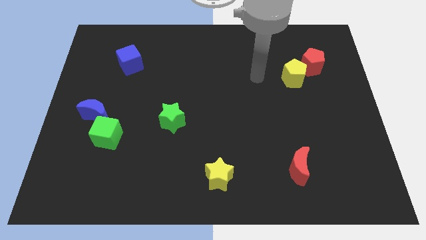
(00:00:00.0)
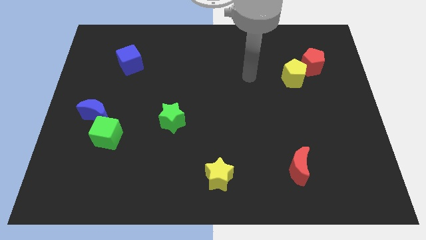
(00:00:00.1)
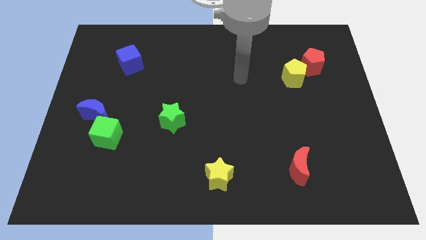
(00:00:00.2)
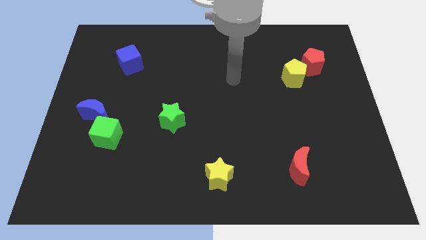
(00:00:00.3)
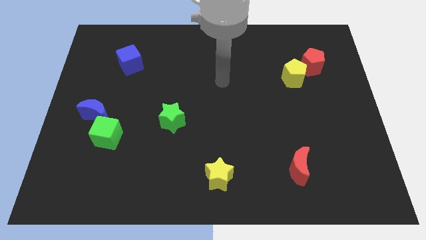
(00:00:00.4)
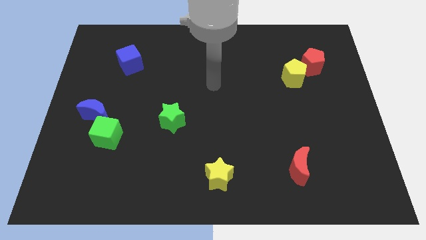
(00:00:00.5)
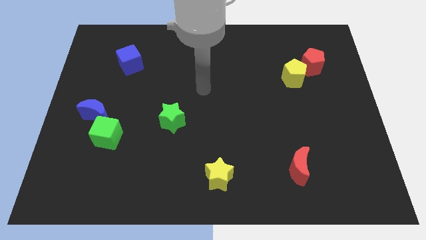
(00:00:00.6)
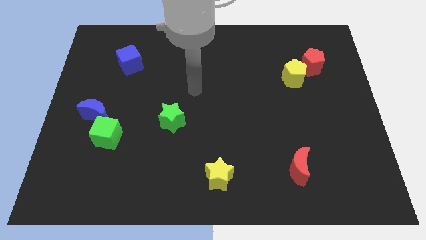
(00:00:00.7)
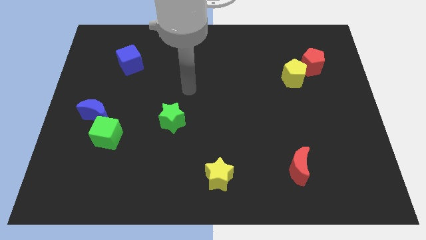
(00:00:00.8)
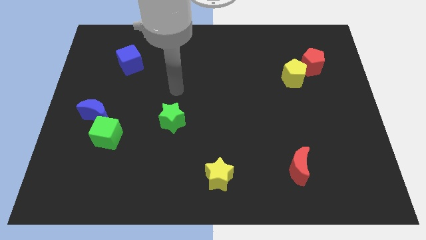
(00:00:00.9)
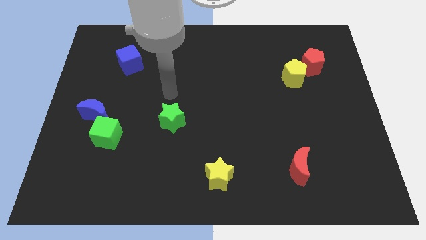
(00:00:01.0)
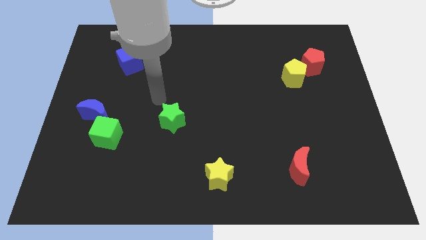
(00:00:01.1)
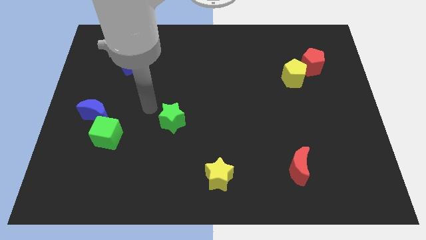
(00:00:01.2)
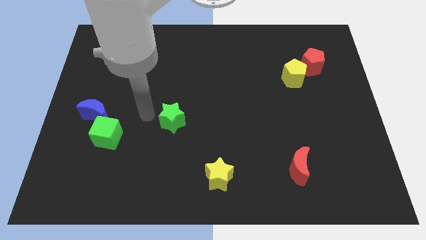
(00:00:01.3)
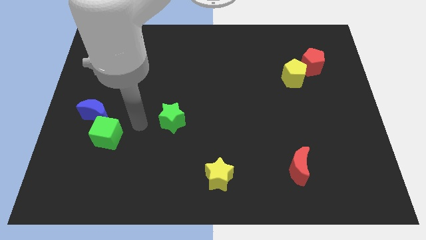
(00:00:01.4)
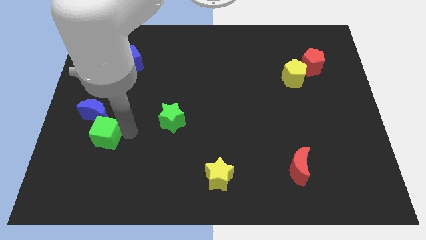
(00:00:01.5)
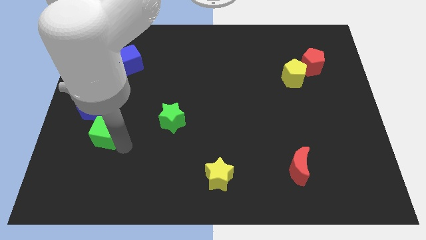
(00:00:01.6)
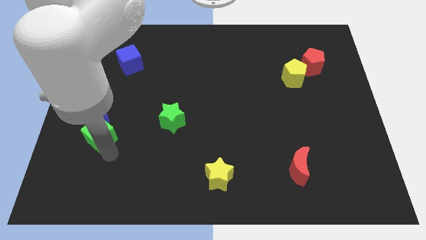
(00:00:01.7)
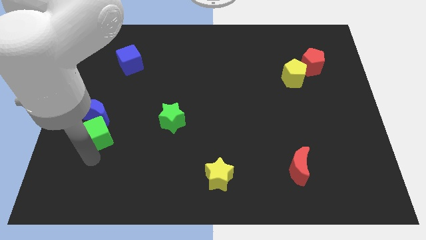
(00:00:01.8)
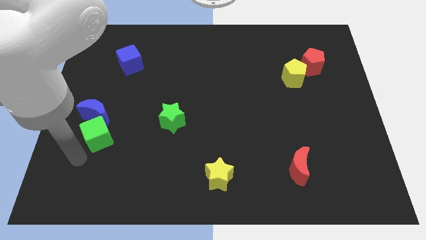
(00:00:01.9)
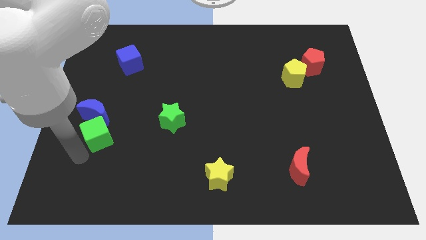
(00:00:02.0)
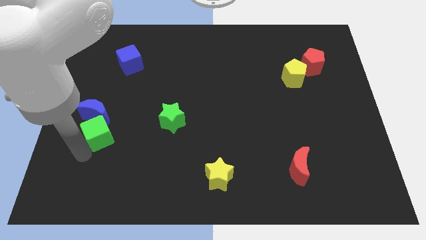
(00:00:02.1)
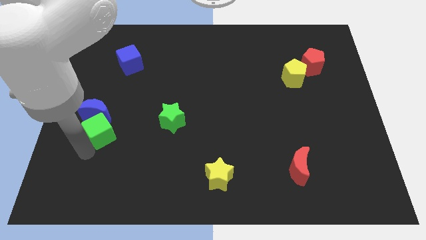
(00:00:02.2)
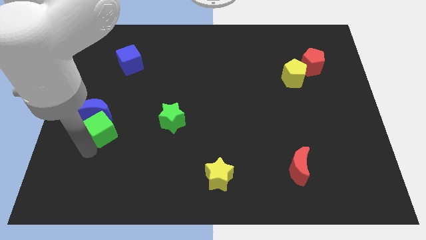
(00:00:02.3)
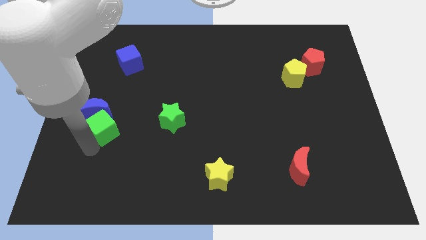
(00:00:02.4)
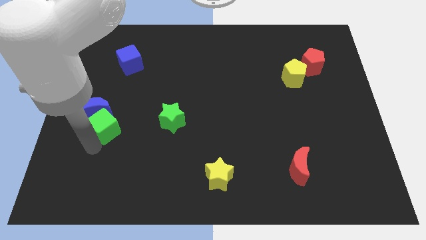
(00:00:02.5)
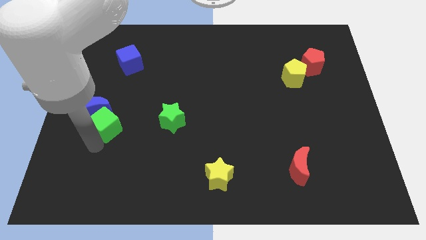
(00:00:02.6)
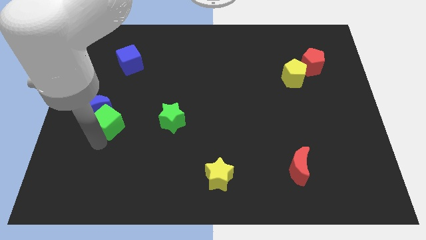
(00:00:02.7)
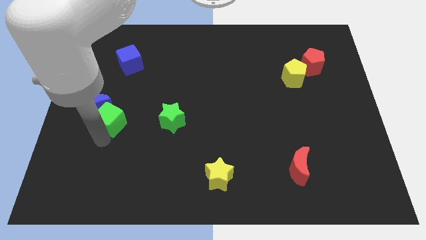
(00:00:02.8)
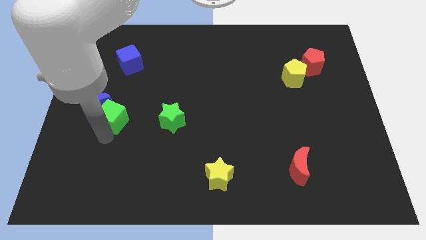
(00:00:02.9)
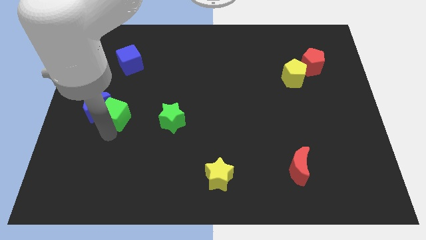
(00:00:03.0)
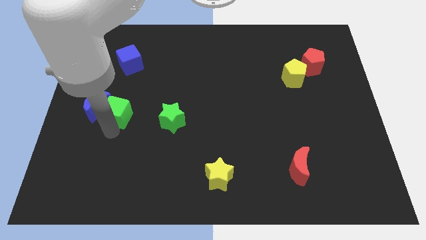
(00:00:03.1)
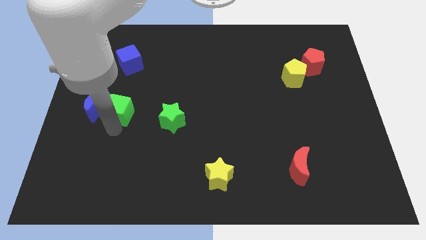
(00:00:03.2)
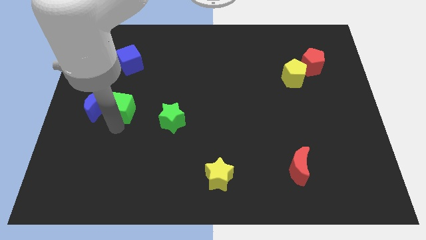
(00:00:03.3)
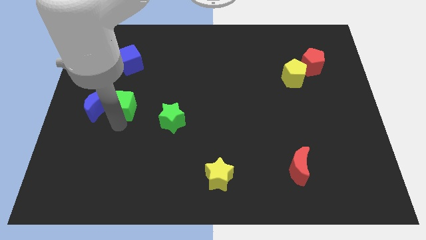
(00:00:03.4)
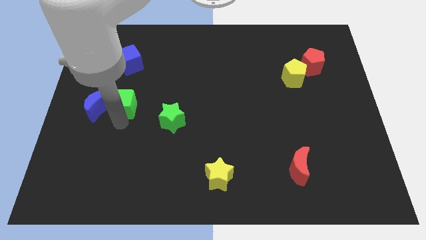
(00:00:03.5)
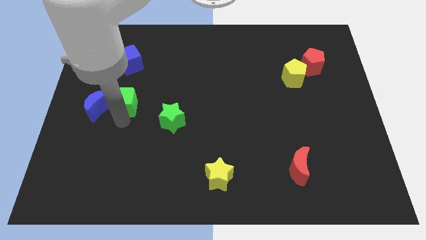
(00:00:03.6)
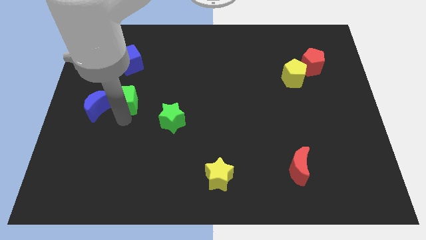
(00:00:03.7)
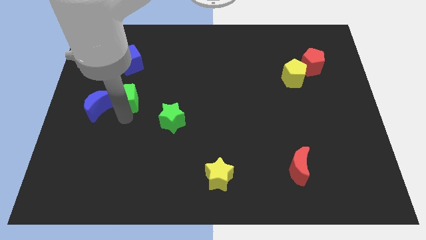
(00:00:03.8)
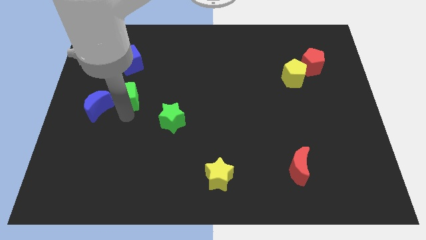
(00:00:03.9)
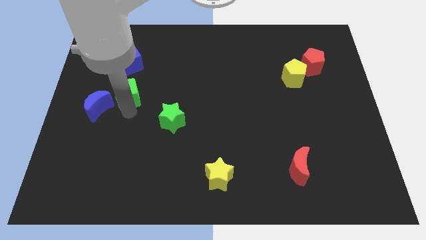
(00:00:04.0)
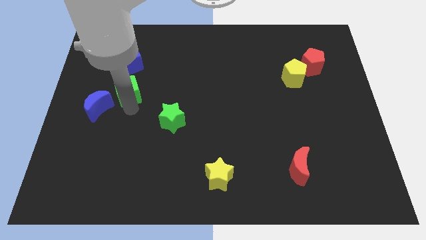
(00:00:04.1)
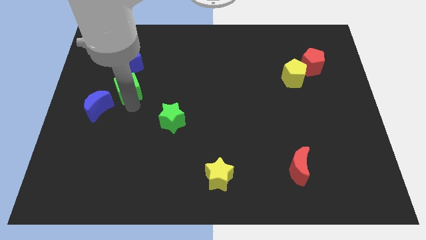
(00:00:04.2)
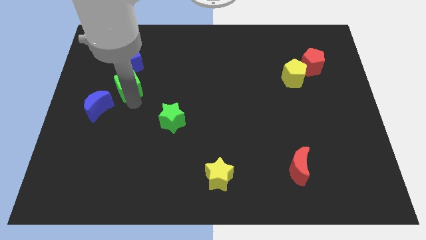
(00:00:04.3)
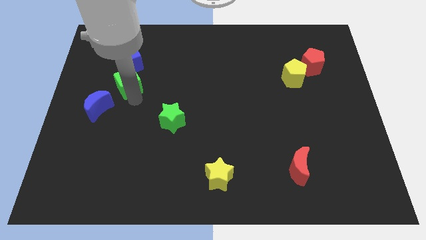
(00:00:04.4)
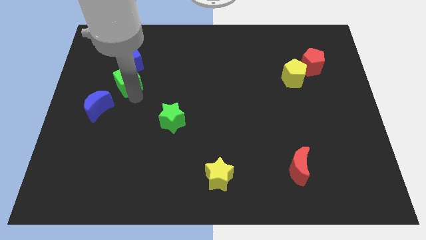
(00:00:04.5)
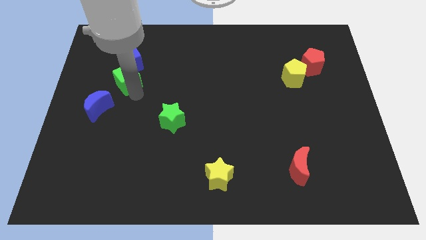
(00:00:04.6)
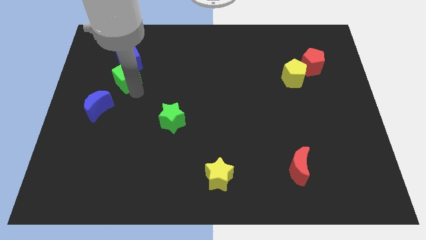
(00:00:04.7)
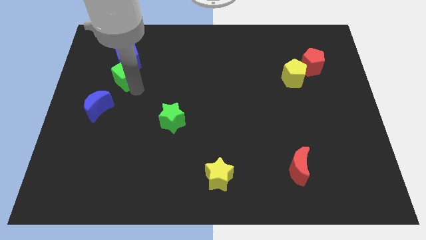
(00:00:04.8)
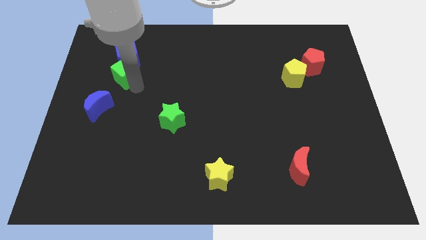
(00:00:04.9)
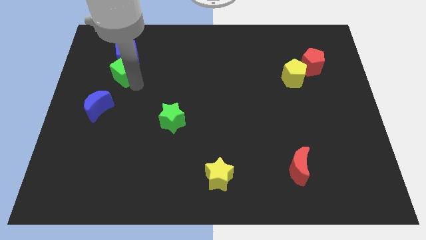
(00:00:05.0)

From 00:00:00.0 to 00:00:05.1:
slide the green cube to the top of the blue moon

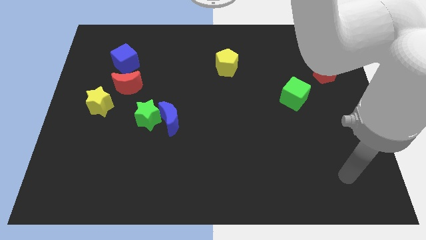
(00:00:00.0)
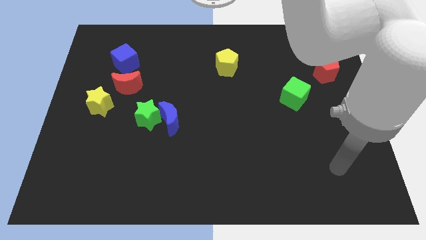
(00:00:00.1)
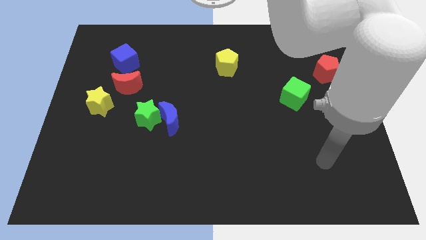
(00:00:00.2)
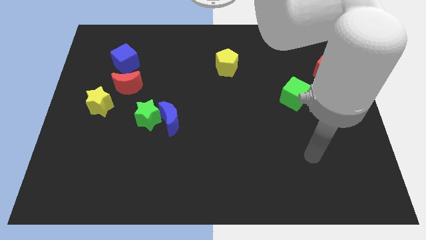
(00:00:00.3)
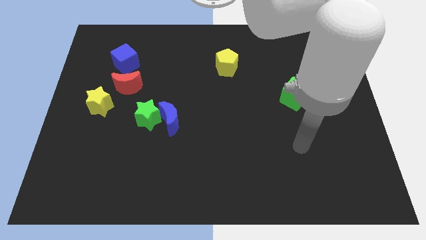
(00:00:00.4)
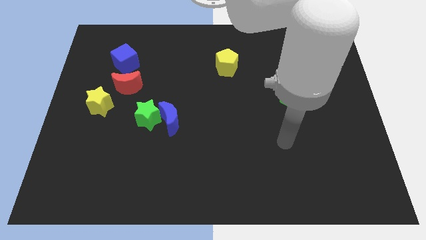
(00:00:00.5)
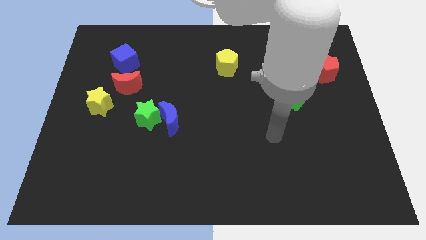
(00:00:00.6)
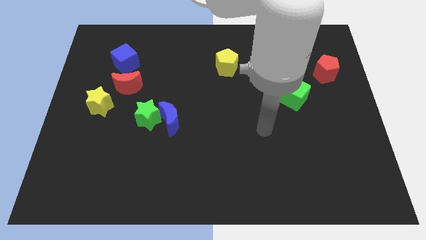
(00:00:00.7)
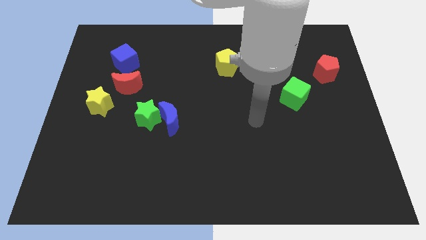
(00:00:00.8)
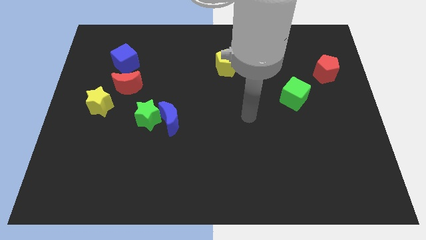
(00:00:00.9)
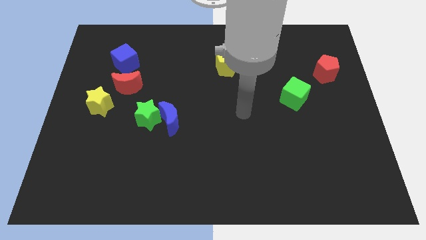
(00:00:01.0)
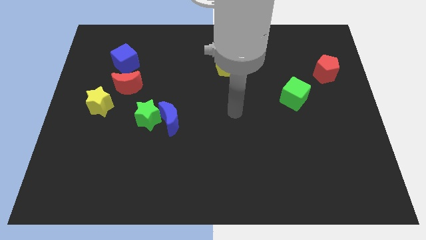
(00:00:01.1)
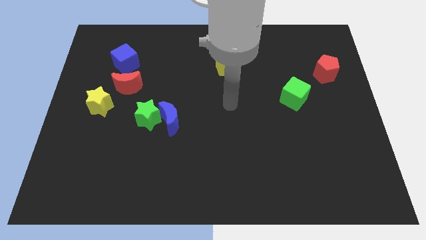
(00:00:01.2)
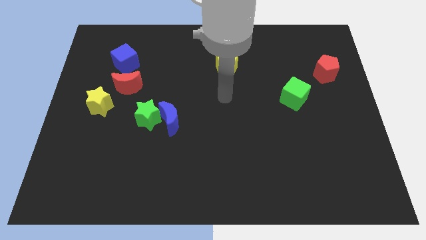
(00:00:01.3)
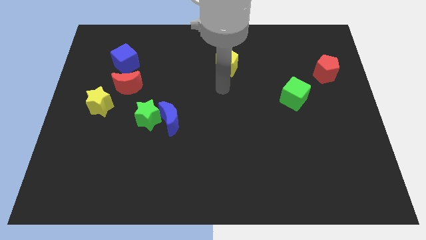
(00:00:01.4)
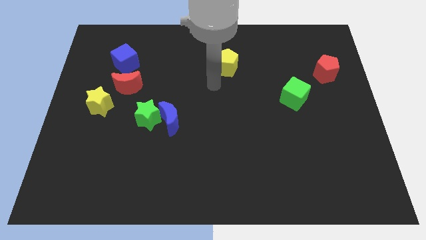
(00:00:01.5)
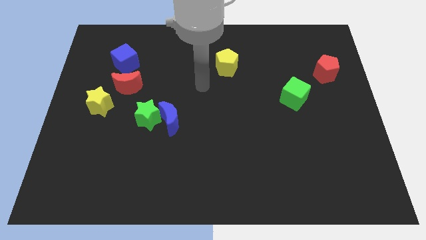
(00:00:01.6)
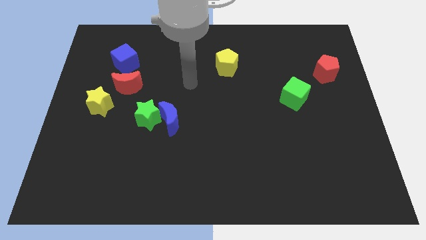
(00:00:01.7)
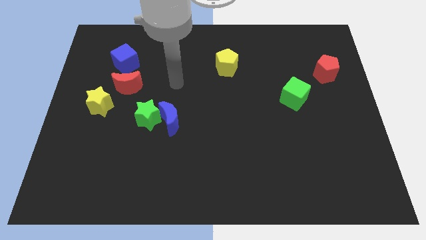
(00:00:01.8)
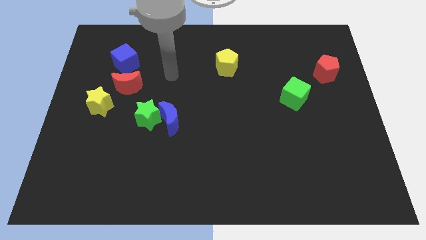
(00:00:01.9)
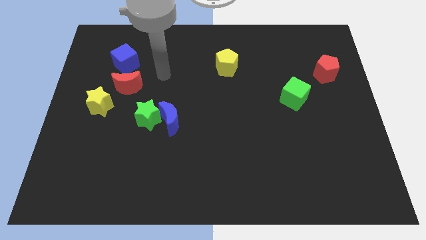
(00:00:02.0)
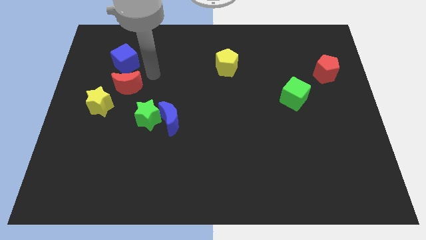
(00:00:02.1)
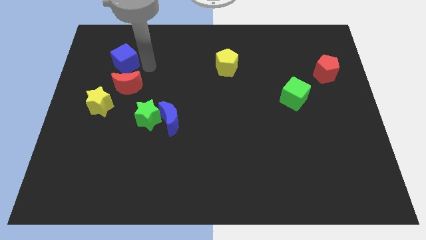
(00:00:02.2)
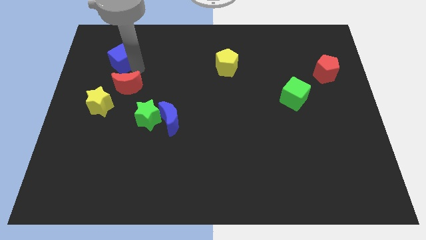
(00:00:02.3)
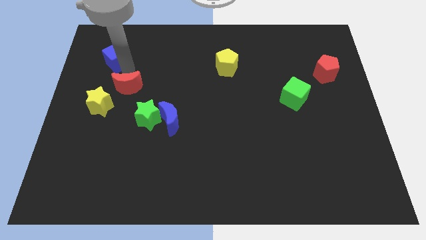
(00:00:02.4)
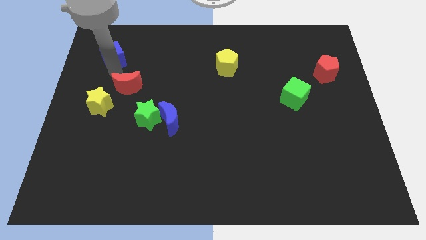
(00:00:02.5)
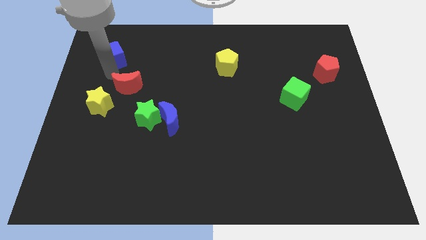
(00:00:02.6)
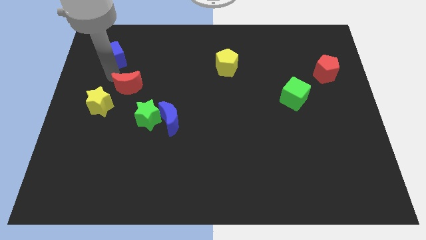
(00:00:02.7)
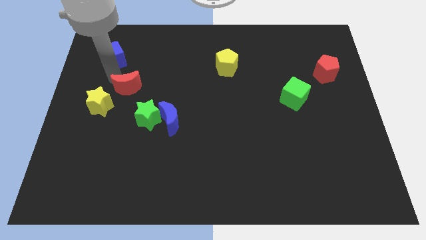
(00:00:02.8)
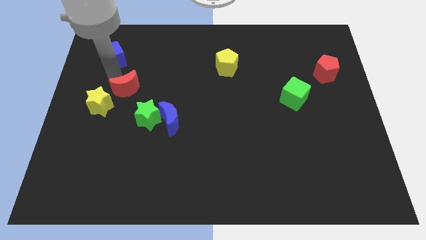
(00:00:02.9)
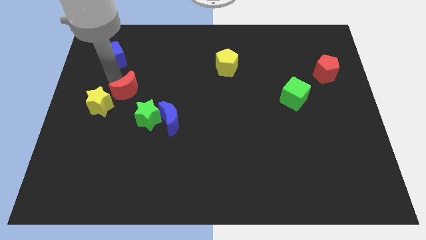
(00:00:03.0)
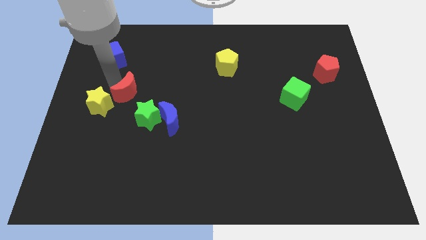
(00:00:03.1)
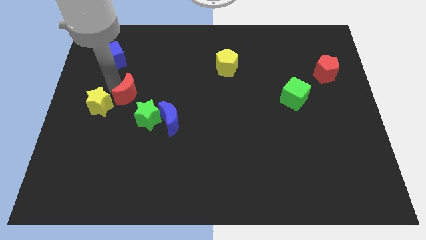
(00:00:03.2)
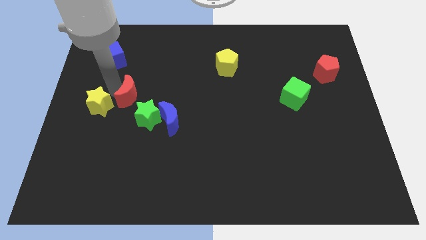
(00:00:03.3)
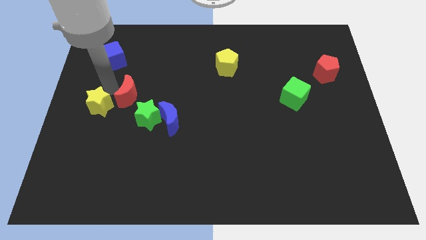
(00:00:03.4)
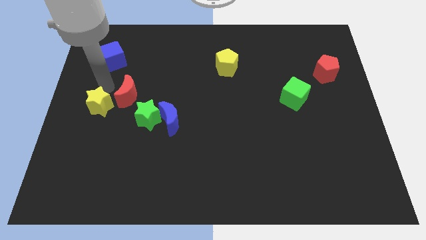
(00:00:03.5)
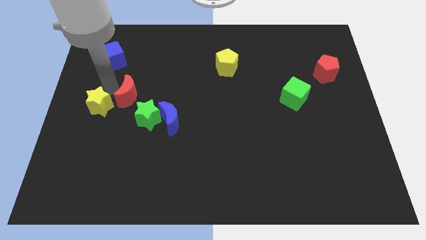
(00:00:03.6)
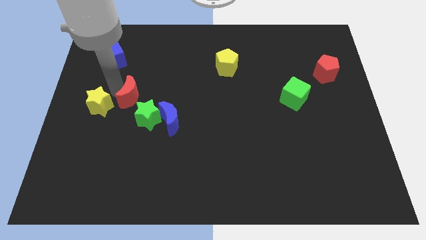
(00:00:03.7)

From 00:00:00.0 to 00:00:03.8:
put the red moon to the top left side of the blue moon
